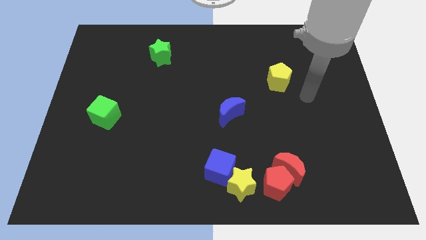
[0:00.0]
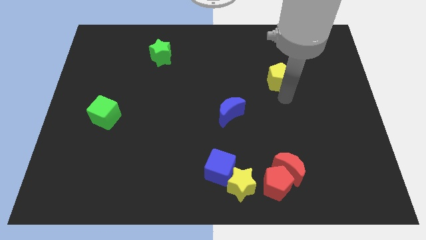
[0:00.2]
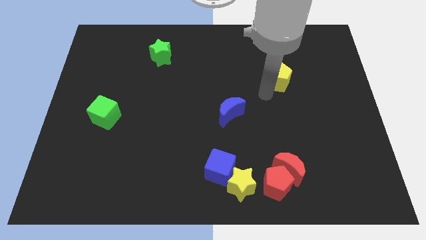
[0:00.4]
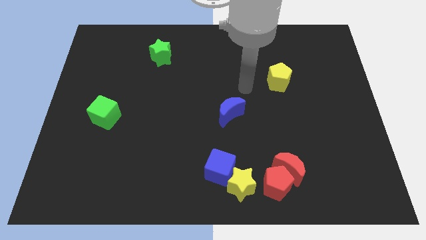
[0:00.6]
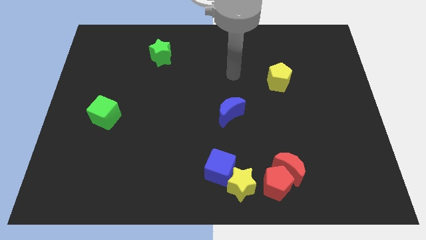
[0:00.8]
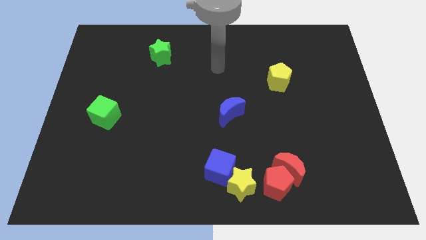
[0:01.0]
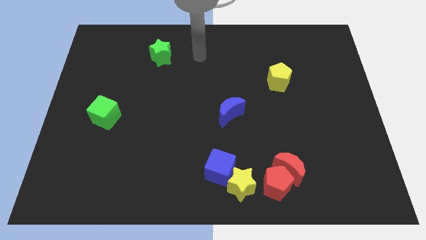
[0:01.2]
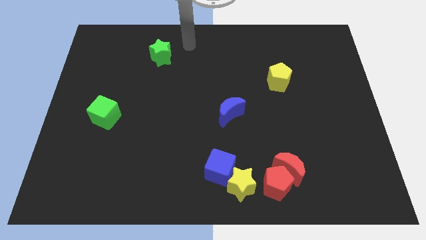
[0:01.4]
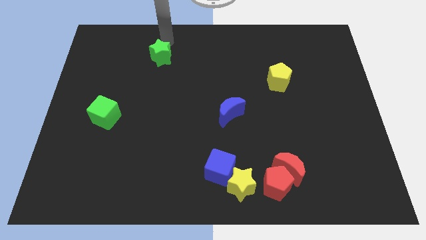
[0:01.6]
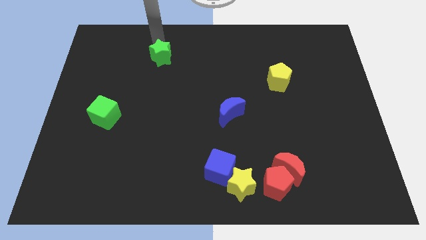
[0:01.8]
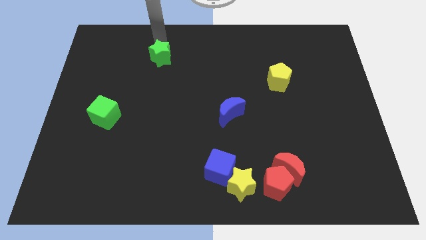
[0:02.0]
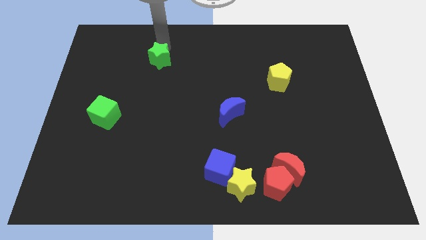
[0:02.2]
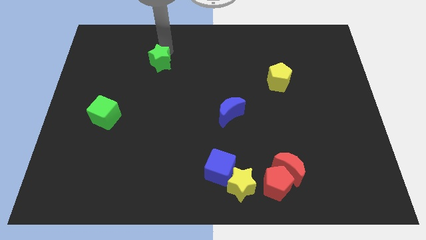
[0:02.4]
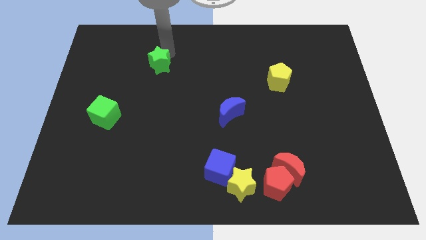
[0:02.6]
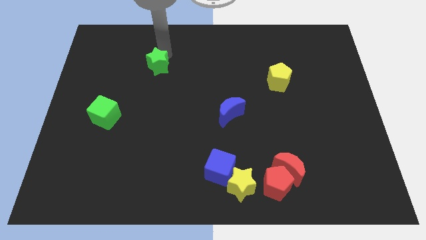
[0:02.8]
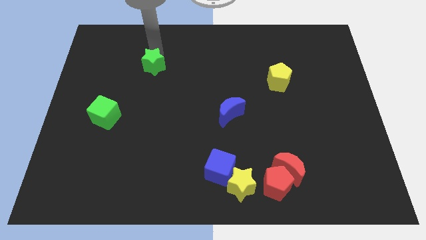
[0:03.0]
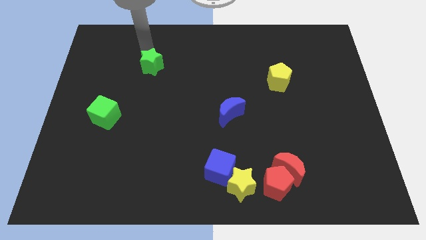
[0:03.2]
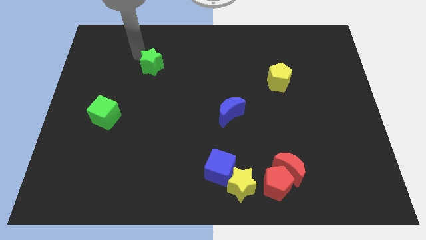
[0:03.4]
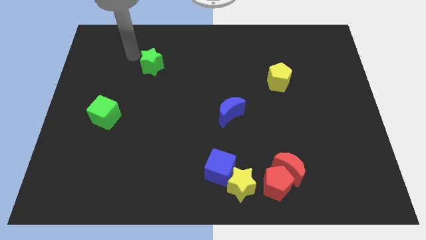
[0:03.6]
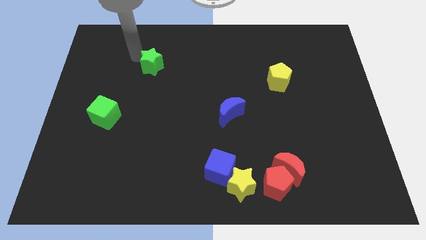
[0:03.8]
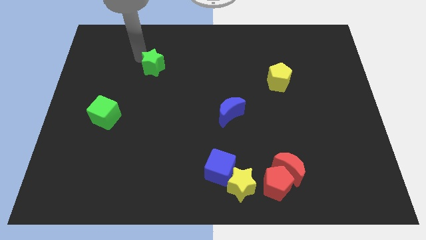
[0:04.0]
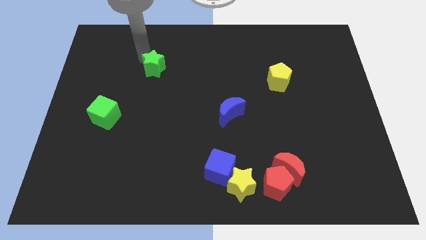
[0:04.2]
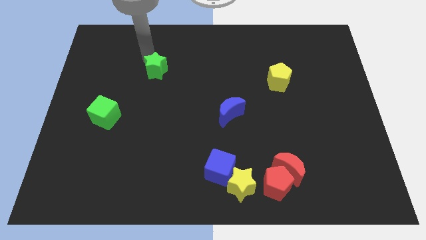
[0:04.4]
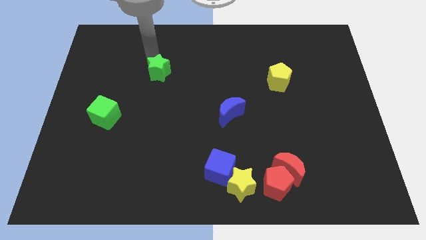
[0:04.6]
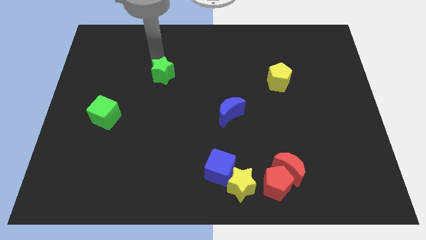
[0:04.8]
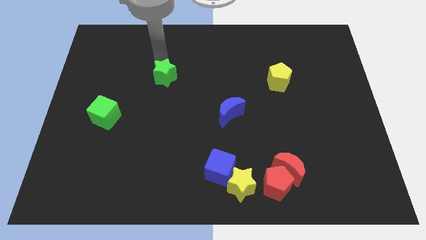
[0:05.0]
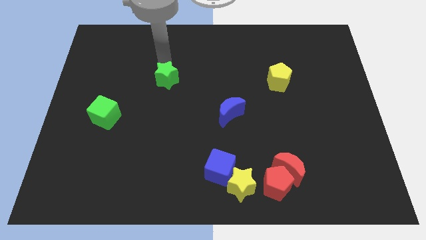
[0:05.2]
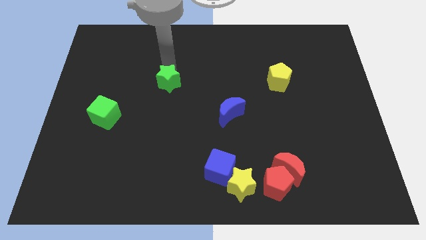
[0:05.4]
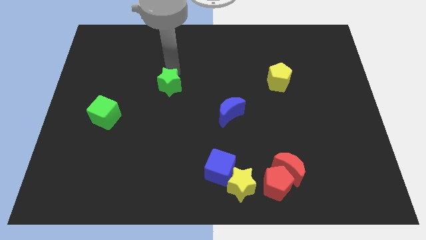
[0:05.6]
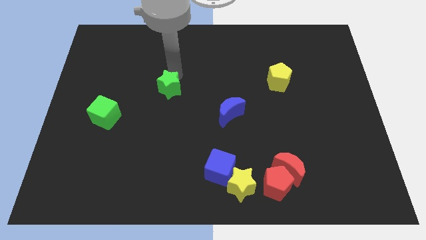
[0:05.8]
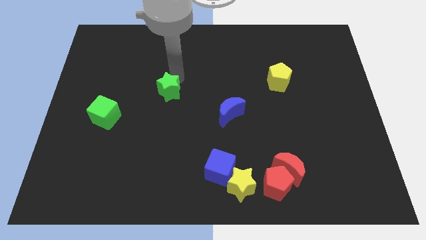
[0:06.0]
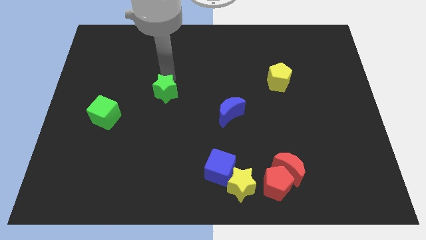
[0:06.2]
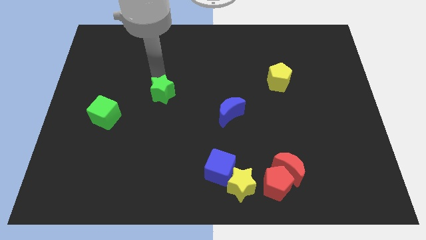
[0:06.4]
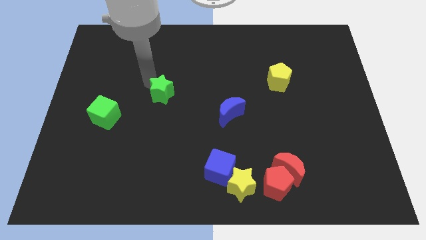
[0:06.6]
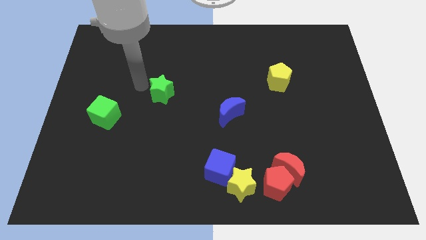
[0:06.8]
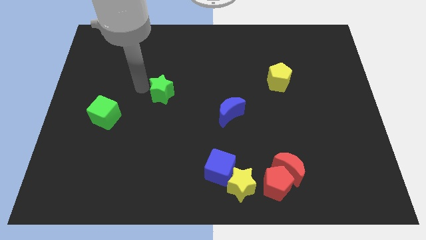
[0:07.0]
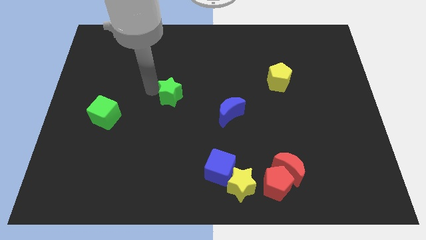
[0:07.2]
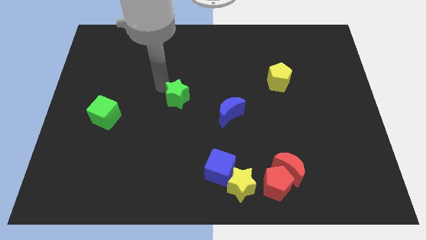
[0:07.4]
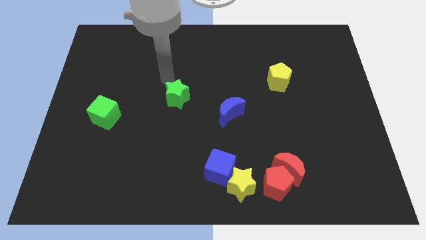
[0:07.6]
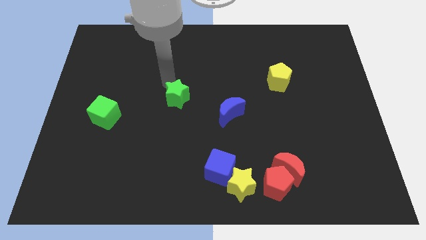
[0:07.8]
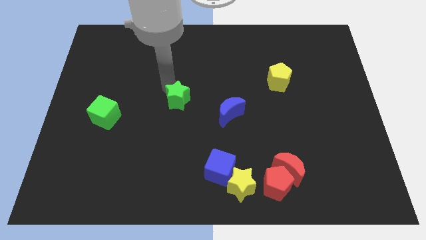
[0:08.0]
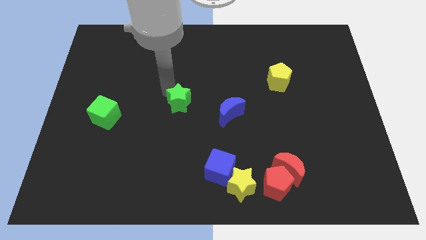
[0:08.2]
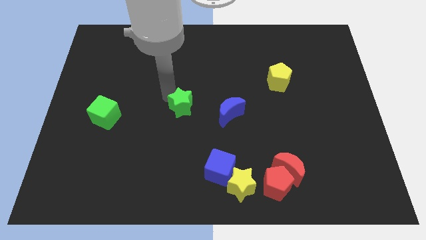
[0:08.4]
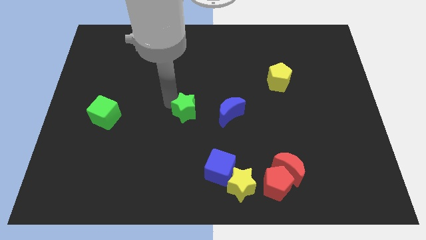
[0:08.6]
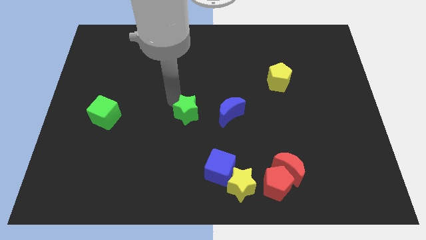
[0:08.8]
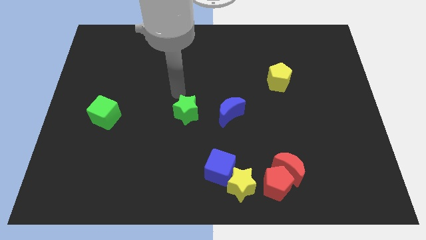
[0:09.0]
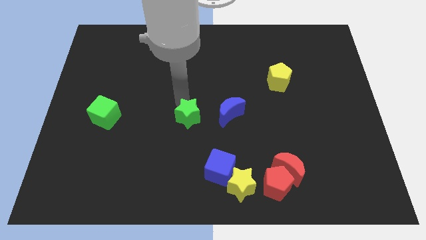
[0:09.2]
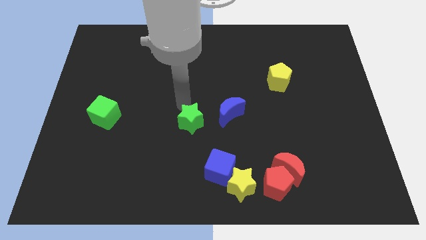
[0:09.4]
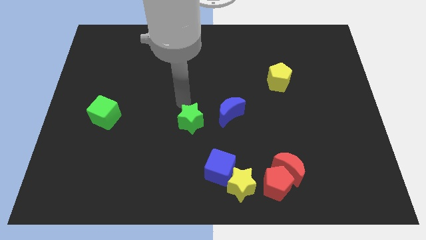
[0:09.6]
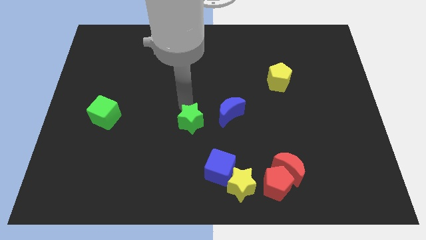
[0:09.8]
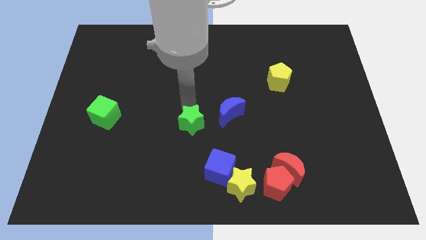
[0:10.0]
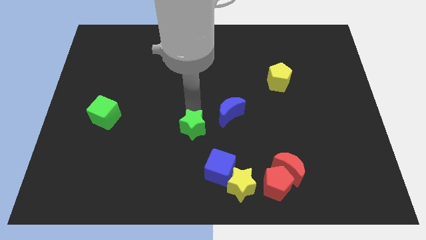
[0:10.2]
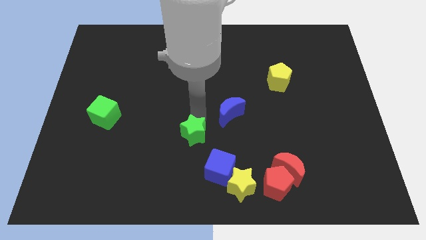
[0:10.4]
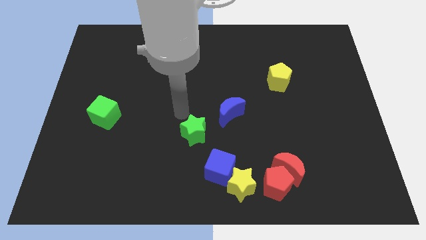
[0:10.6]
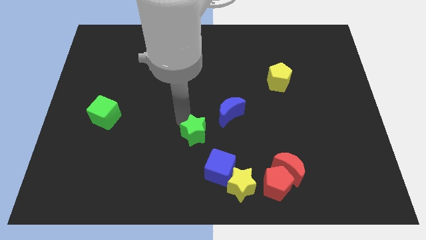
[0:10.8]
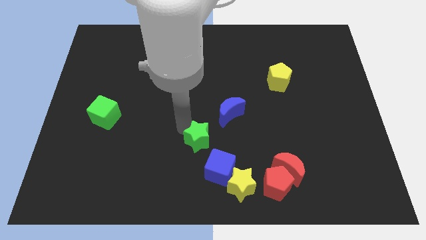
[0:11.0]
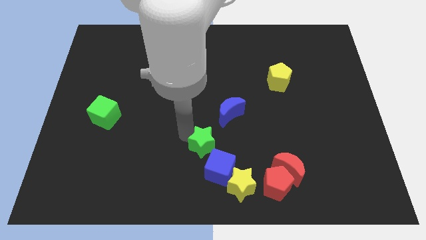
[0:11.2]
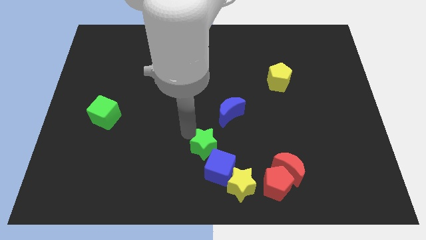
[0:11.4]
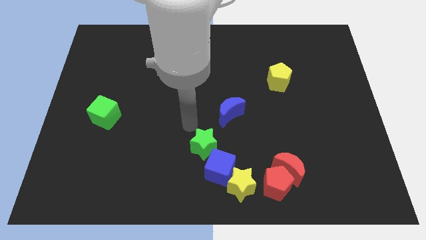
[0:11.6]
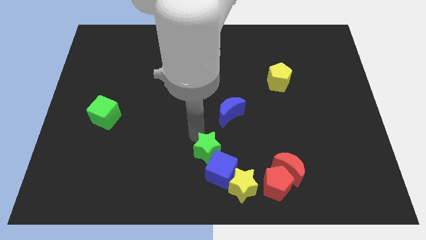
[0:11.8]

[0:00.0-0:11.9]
move the green star close to the blue cube

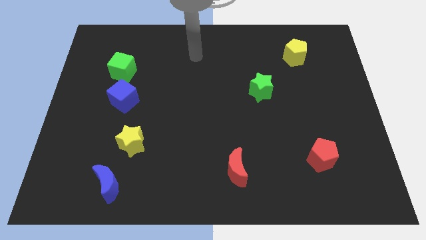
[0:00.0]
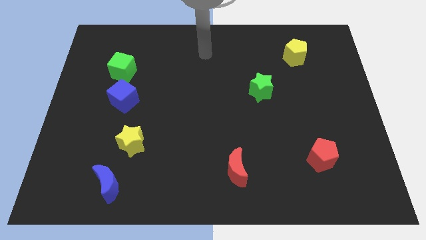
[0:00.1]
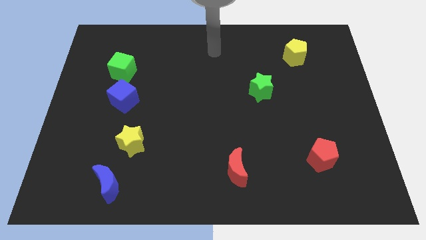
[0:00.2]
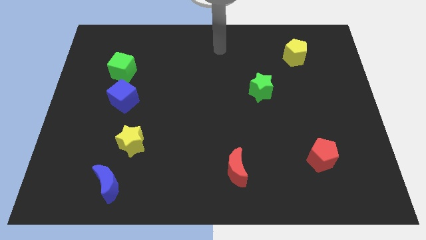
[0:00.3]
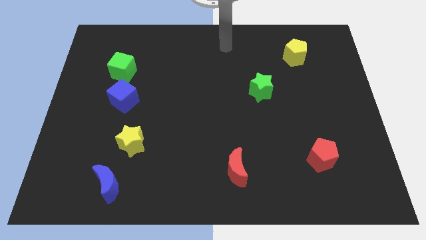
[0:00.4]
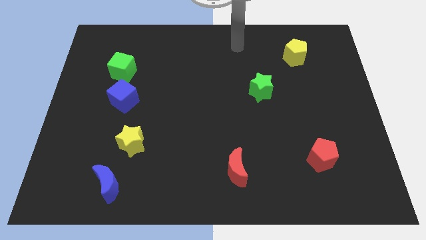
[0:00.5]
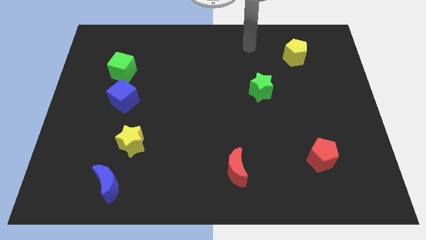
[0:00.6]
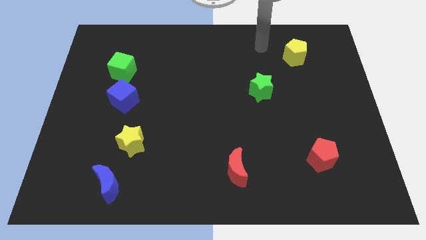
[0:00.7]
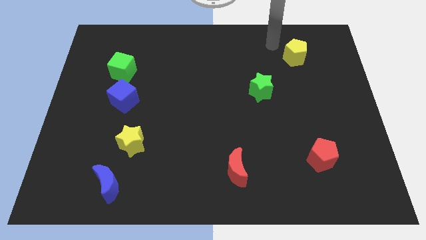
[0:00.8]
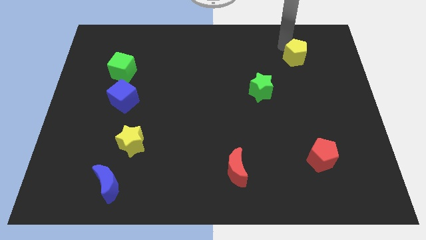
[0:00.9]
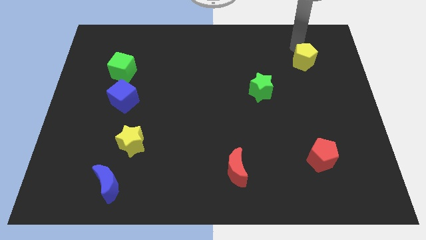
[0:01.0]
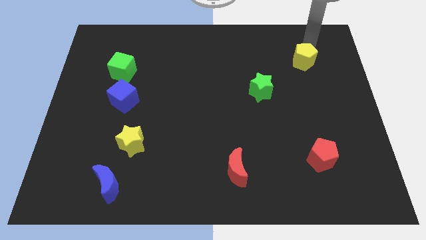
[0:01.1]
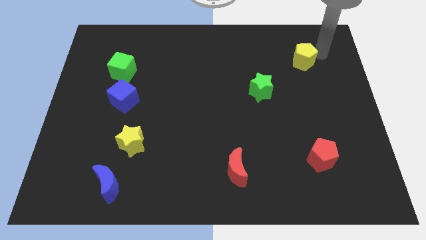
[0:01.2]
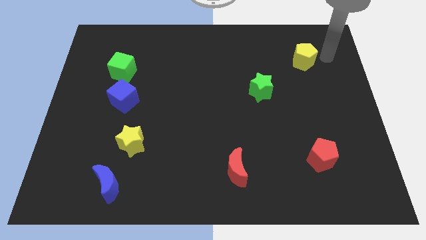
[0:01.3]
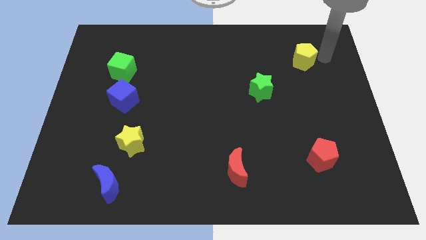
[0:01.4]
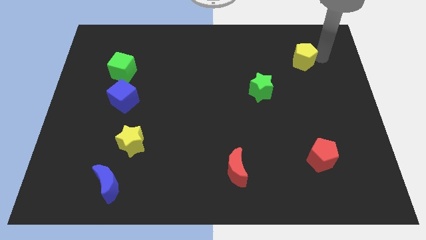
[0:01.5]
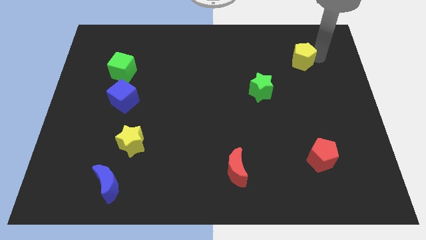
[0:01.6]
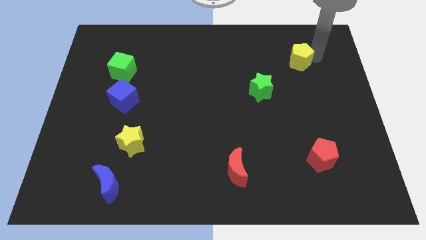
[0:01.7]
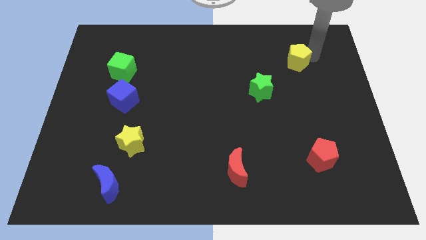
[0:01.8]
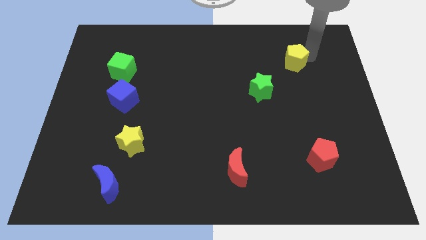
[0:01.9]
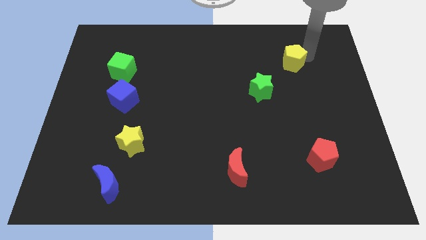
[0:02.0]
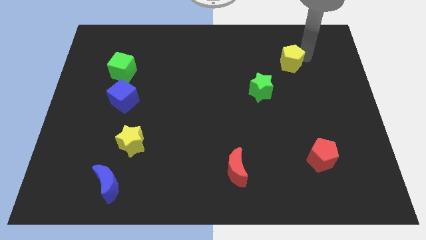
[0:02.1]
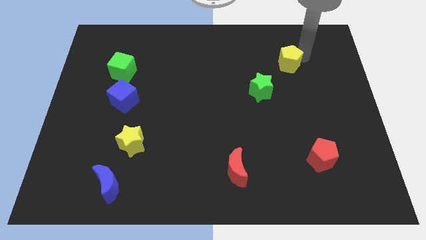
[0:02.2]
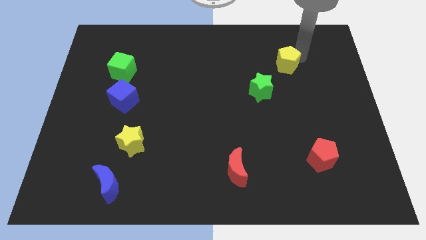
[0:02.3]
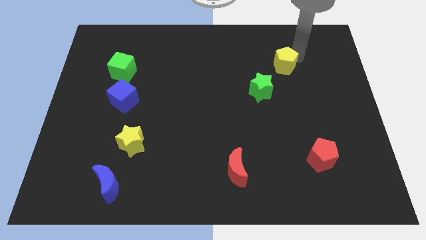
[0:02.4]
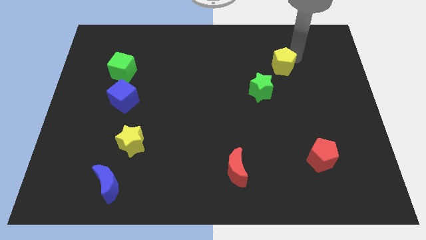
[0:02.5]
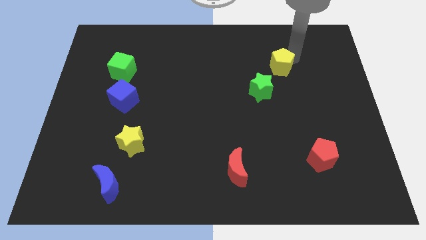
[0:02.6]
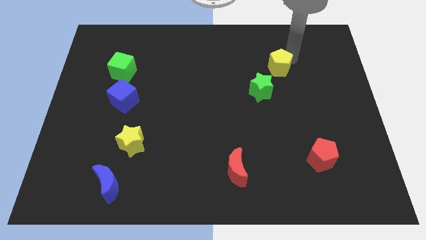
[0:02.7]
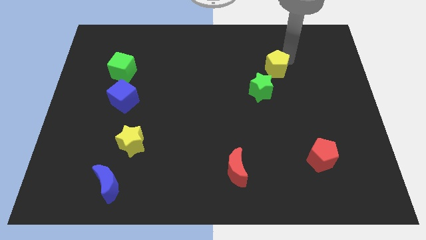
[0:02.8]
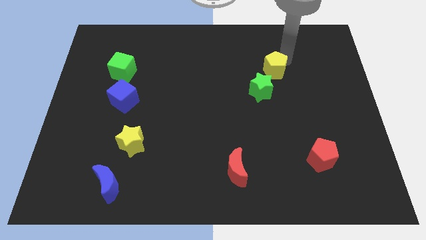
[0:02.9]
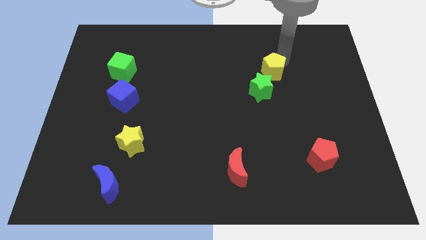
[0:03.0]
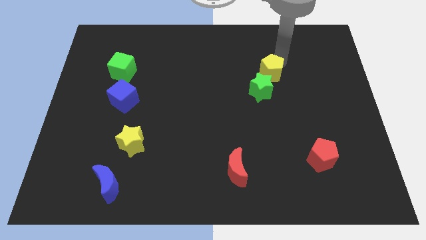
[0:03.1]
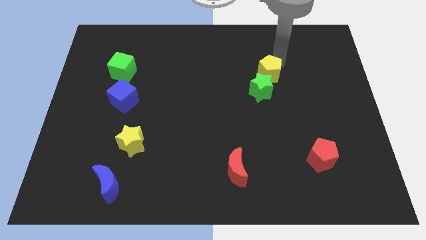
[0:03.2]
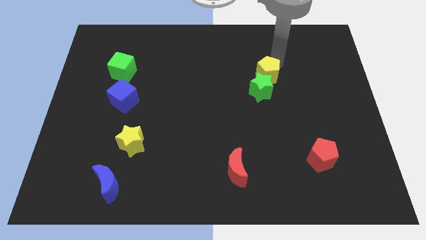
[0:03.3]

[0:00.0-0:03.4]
put the yellow pentagon next to the green star
